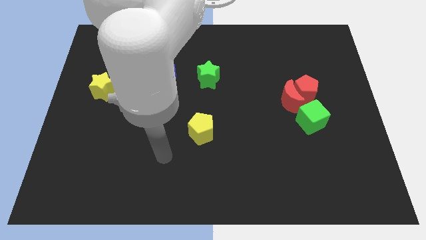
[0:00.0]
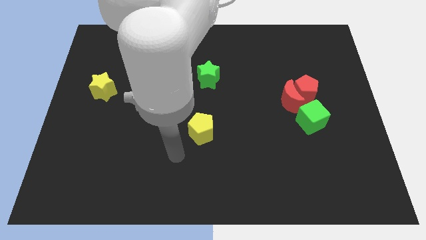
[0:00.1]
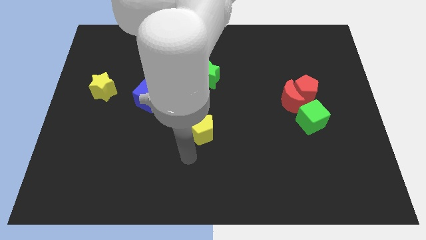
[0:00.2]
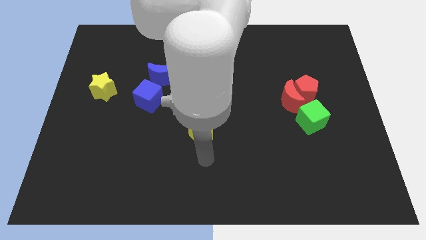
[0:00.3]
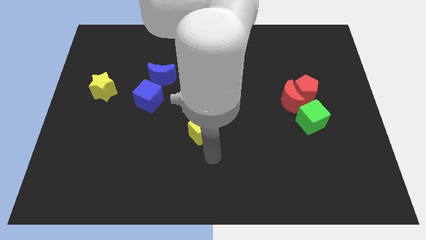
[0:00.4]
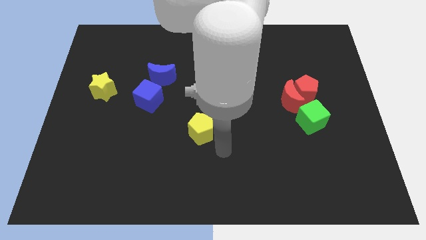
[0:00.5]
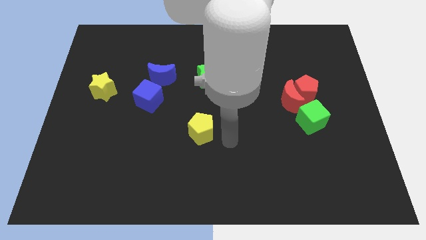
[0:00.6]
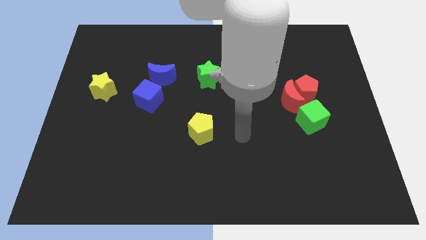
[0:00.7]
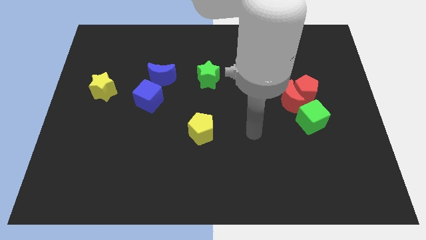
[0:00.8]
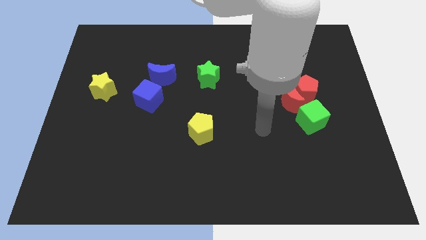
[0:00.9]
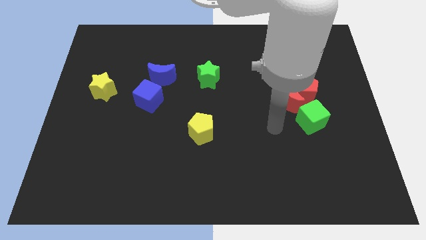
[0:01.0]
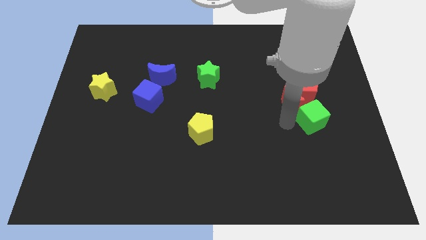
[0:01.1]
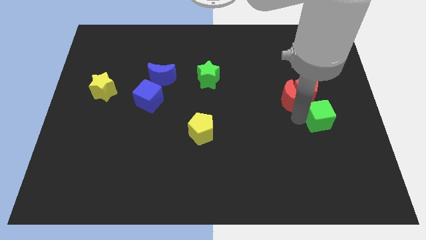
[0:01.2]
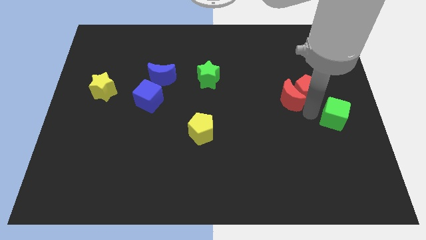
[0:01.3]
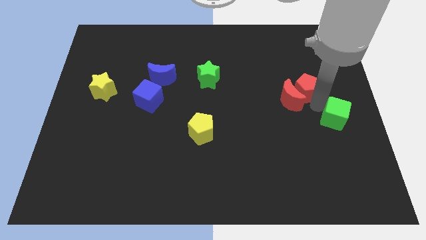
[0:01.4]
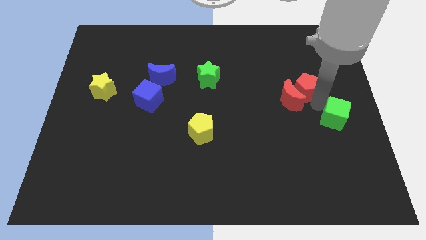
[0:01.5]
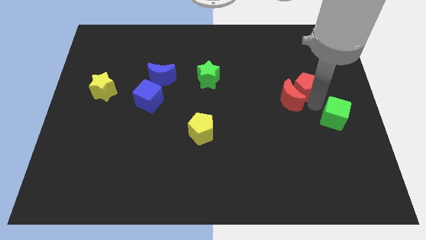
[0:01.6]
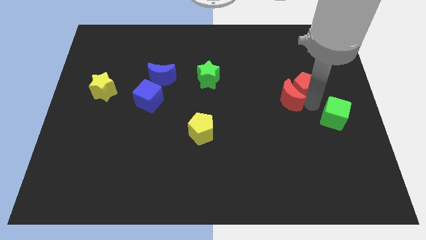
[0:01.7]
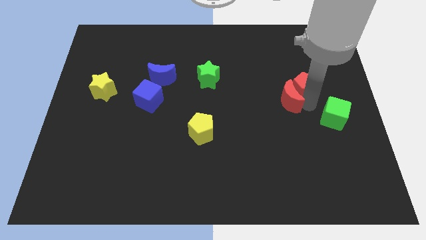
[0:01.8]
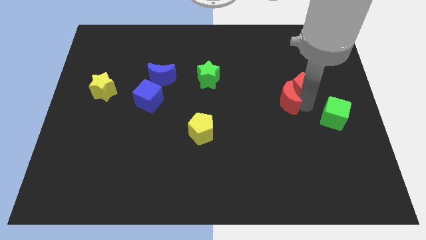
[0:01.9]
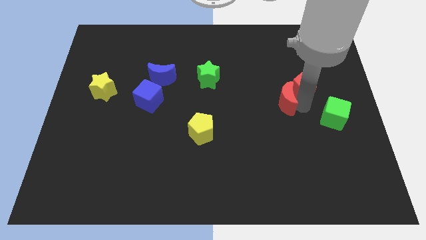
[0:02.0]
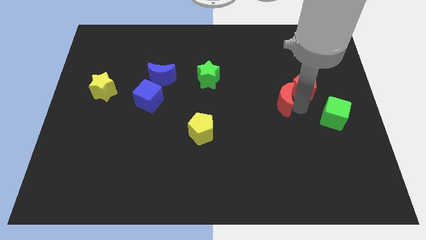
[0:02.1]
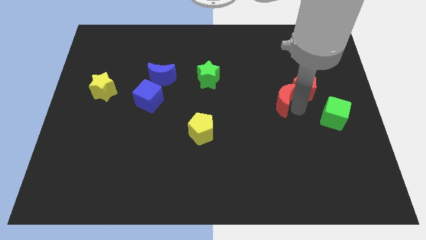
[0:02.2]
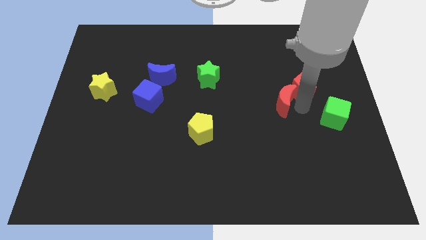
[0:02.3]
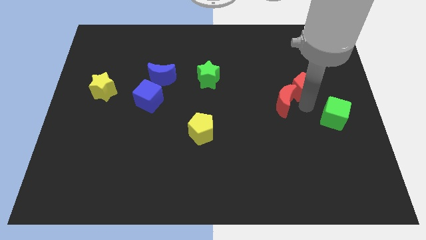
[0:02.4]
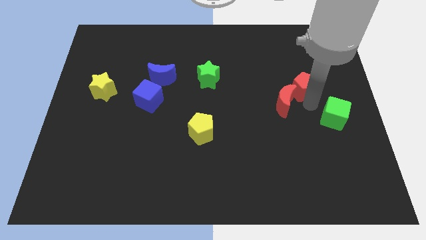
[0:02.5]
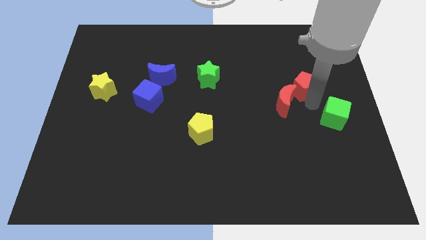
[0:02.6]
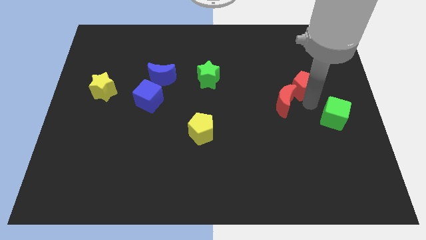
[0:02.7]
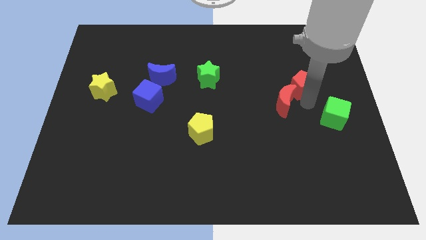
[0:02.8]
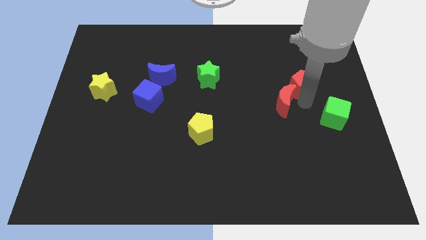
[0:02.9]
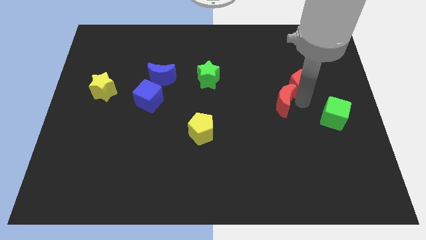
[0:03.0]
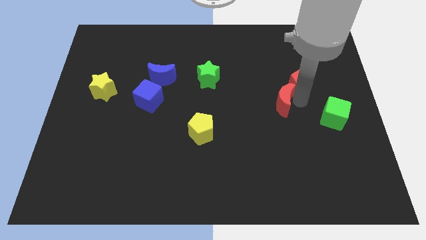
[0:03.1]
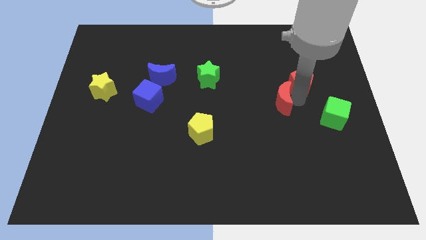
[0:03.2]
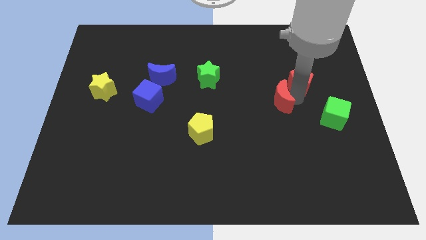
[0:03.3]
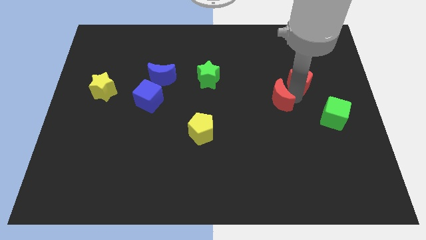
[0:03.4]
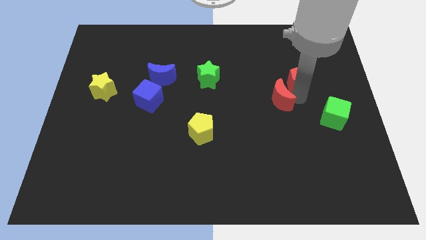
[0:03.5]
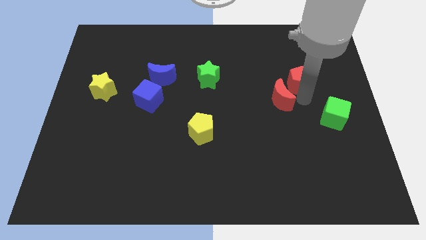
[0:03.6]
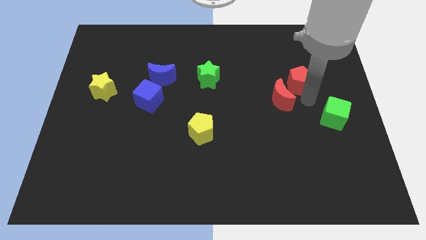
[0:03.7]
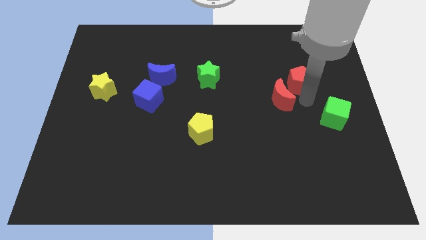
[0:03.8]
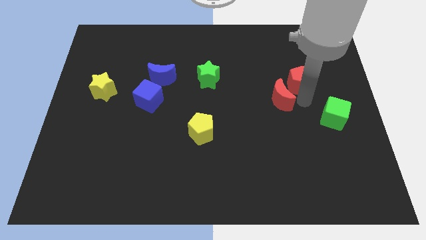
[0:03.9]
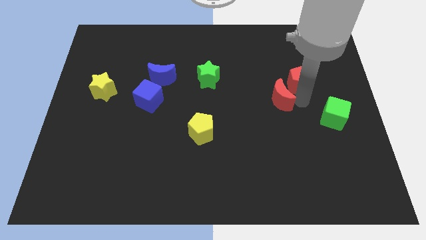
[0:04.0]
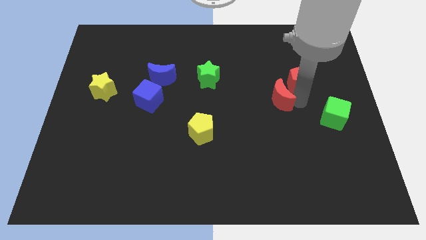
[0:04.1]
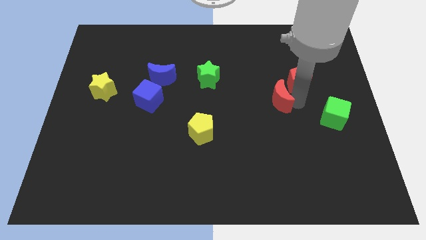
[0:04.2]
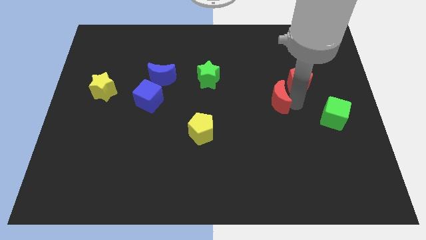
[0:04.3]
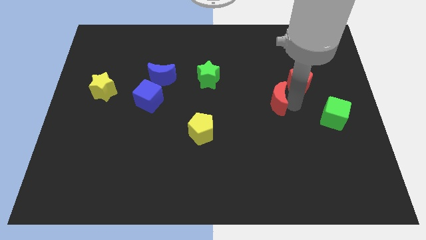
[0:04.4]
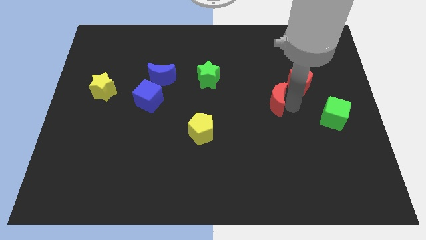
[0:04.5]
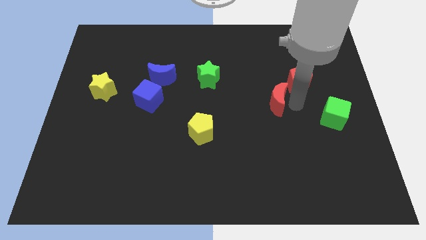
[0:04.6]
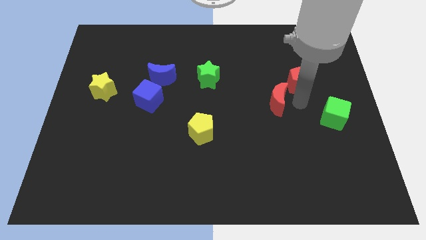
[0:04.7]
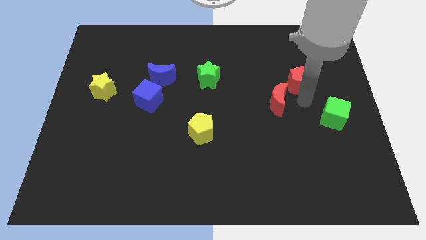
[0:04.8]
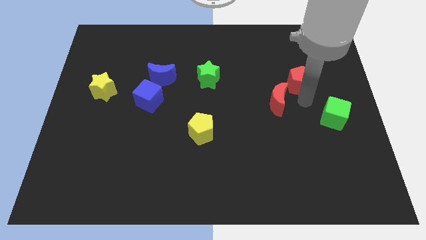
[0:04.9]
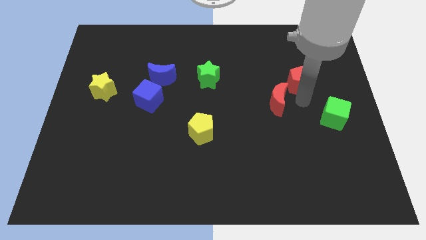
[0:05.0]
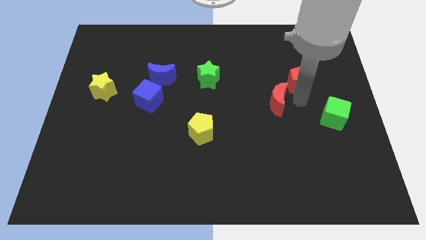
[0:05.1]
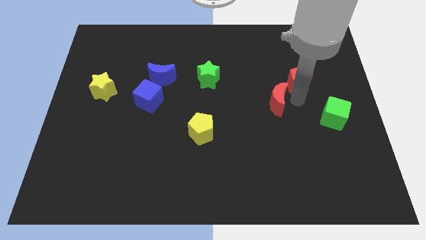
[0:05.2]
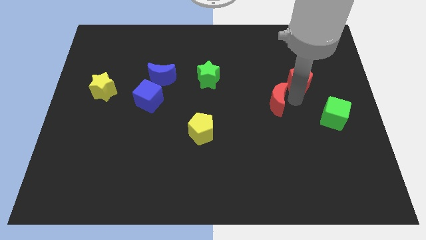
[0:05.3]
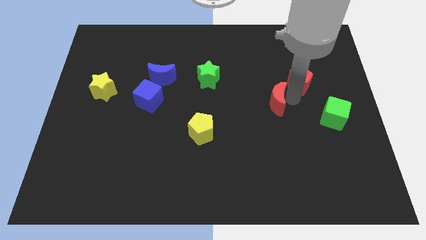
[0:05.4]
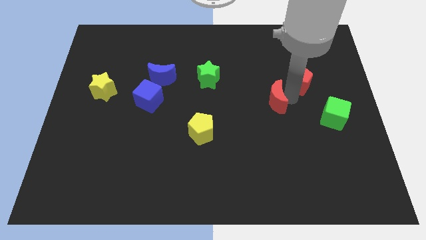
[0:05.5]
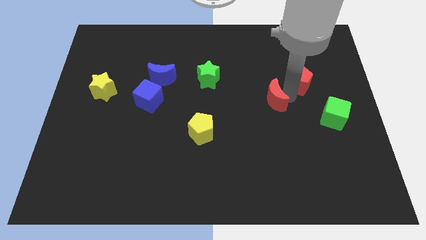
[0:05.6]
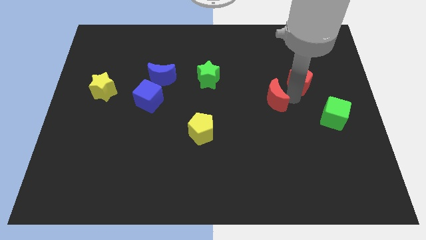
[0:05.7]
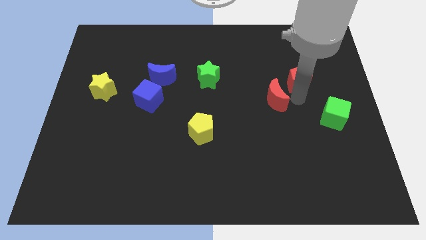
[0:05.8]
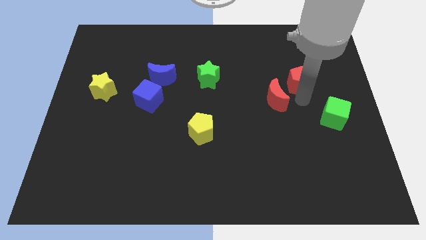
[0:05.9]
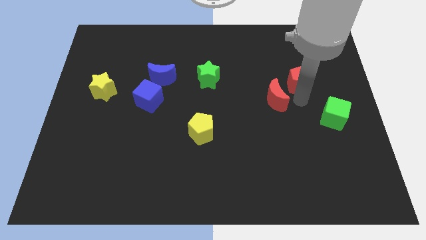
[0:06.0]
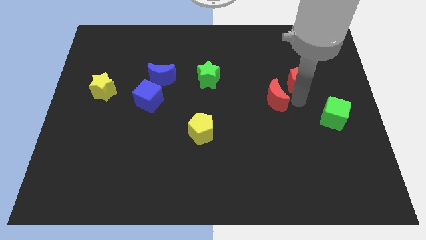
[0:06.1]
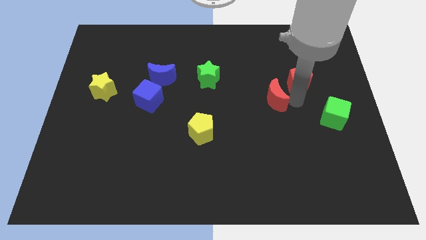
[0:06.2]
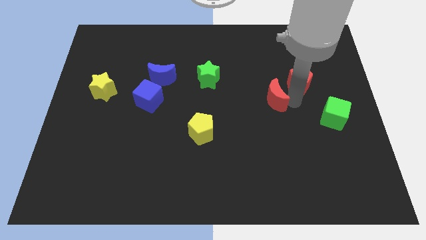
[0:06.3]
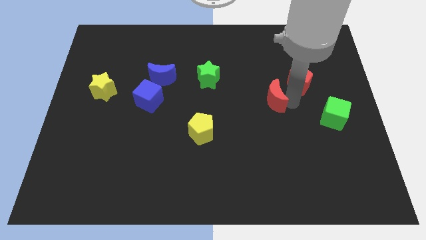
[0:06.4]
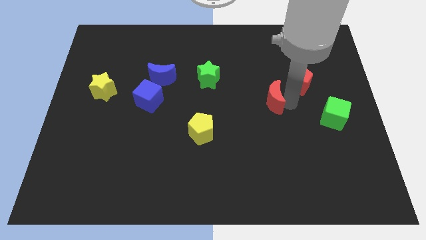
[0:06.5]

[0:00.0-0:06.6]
separate the red moon from the red pentagon and green cube

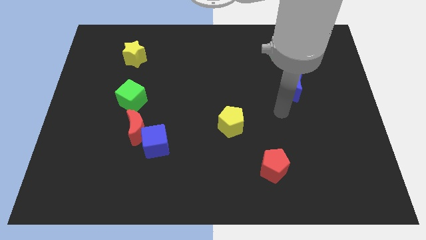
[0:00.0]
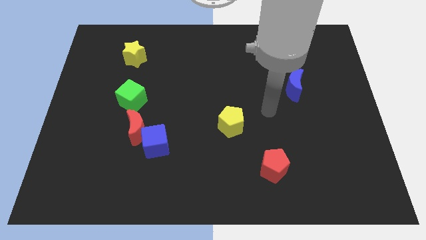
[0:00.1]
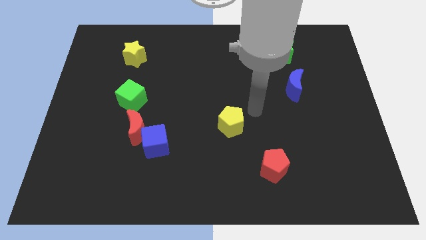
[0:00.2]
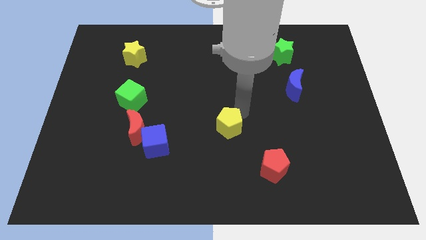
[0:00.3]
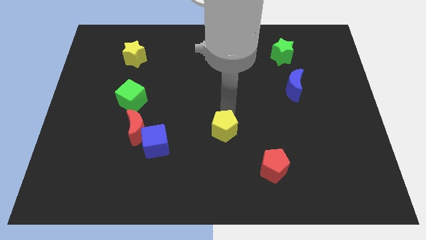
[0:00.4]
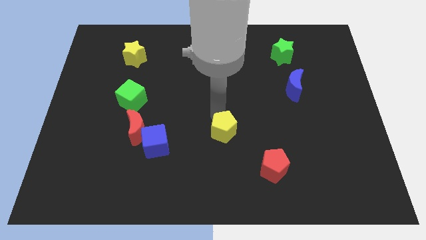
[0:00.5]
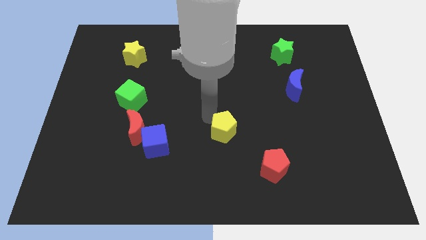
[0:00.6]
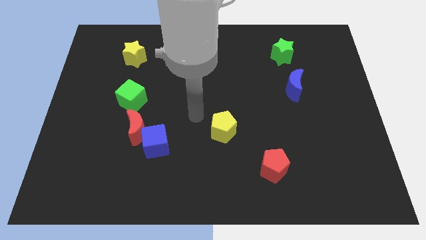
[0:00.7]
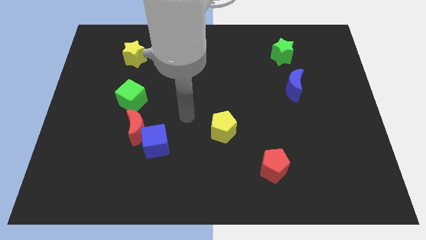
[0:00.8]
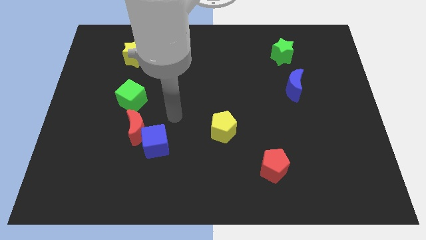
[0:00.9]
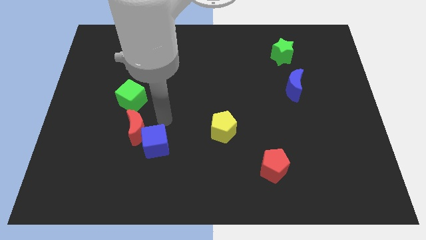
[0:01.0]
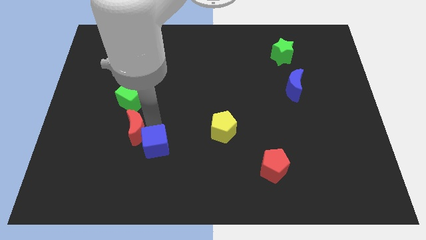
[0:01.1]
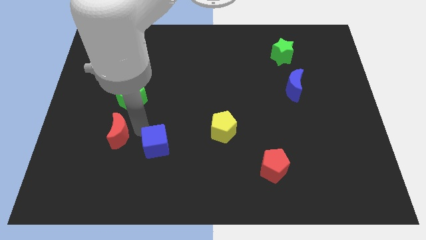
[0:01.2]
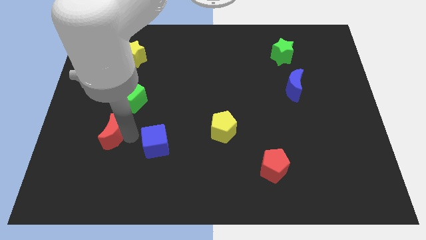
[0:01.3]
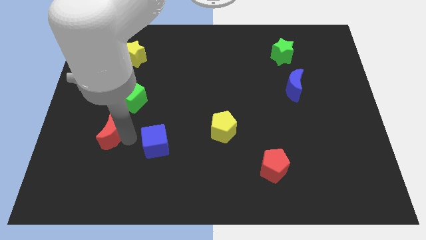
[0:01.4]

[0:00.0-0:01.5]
pull the blue cube apart from the red moon

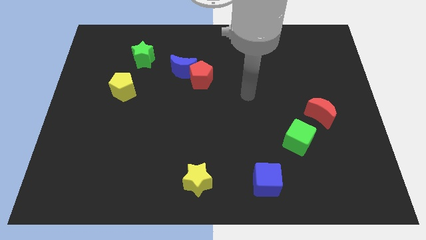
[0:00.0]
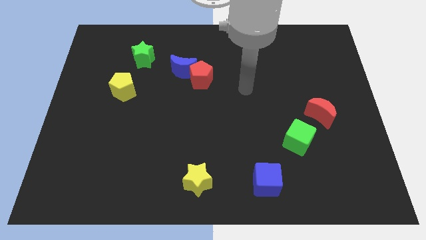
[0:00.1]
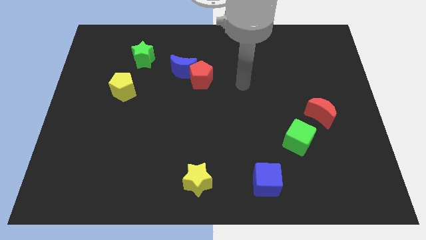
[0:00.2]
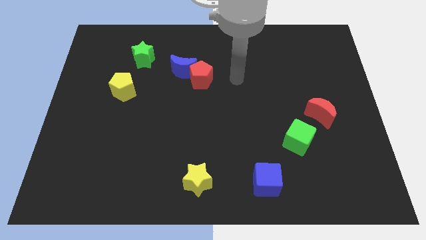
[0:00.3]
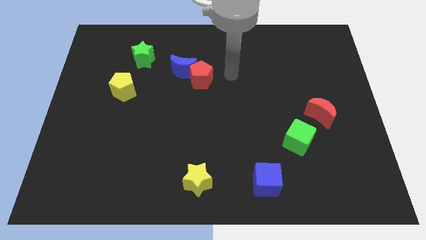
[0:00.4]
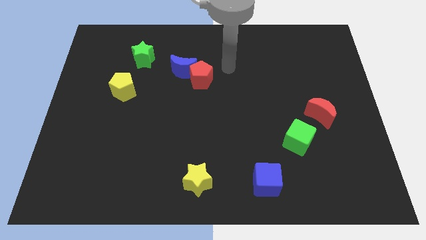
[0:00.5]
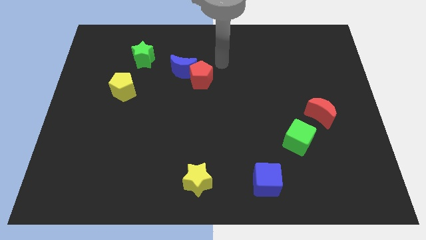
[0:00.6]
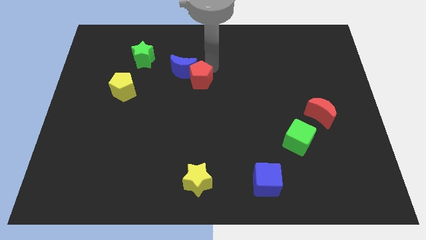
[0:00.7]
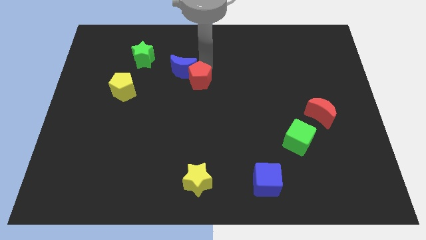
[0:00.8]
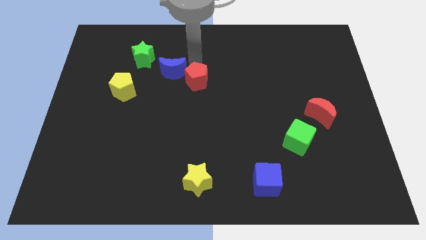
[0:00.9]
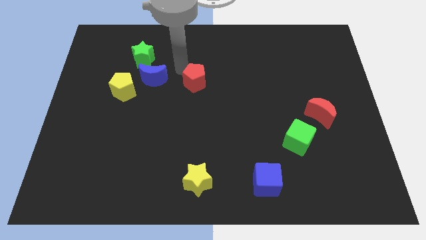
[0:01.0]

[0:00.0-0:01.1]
move the red pentagon away from the blue moon

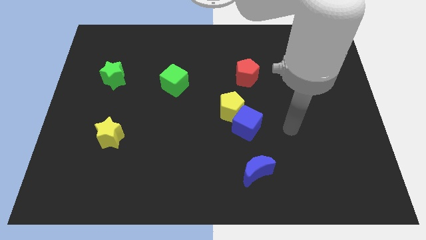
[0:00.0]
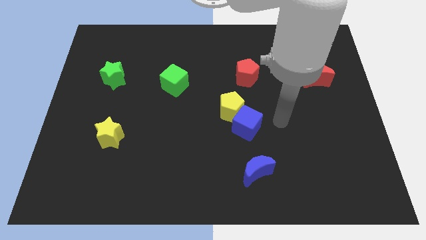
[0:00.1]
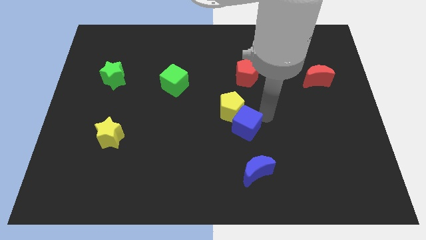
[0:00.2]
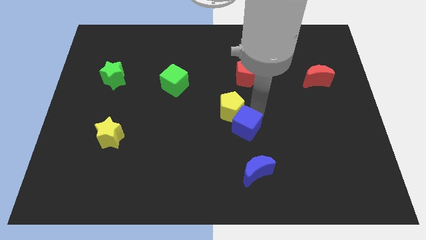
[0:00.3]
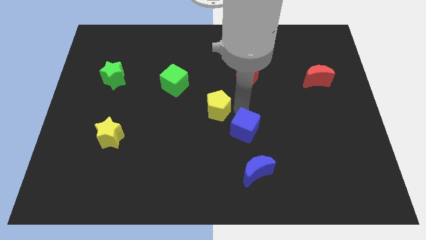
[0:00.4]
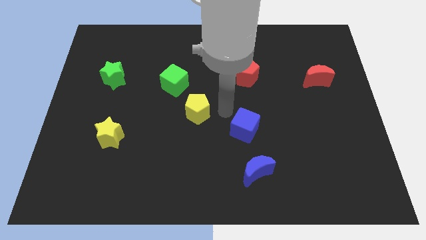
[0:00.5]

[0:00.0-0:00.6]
separate the blue cube from the yellow pentagon
